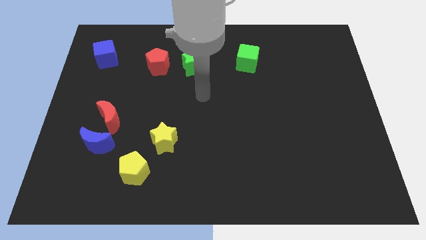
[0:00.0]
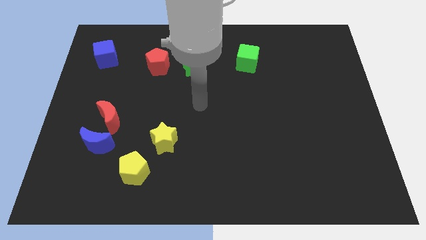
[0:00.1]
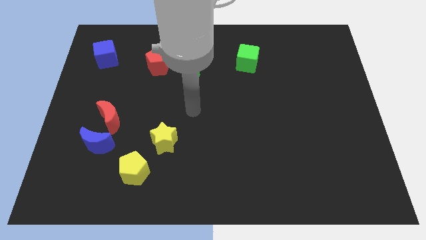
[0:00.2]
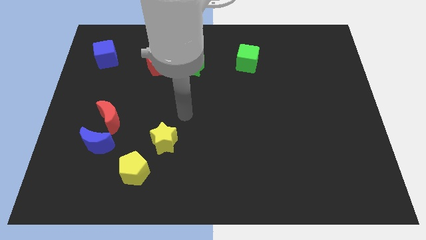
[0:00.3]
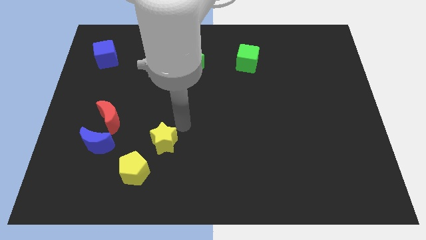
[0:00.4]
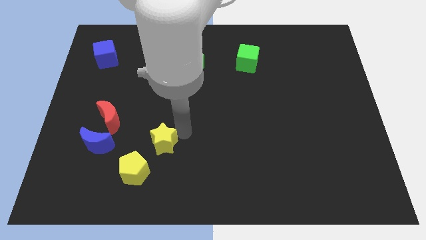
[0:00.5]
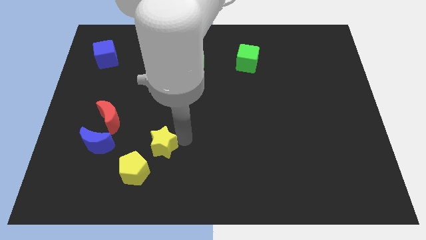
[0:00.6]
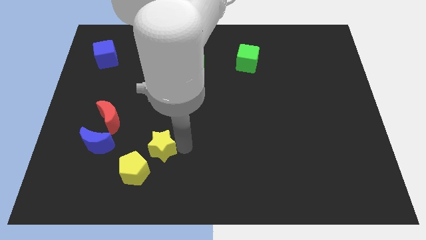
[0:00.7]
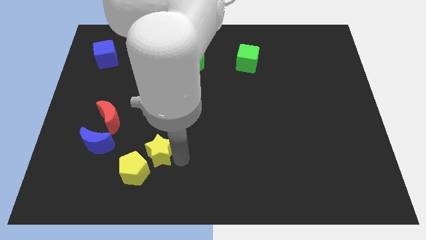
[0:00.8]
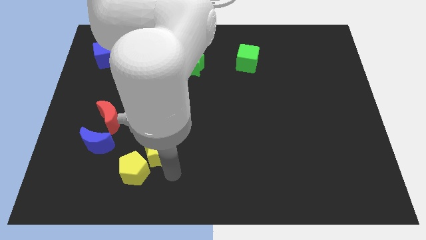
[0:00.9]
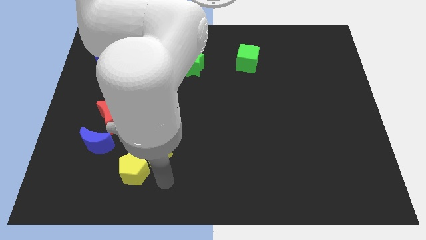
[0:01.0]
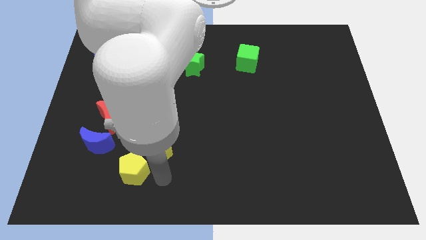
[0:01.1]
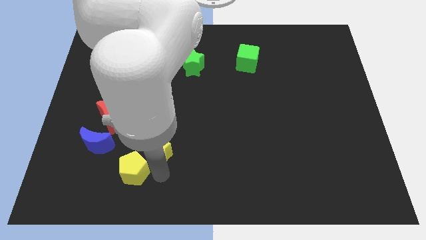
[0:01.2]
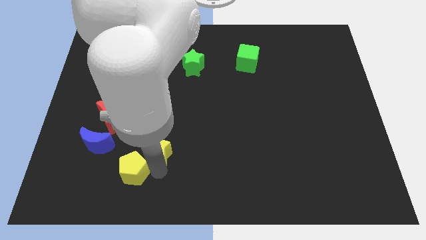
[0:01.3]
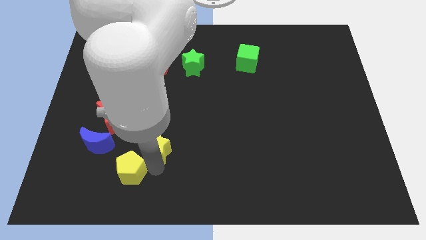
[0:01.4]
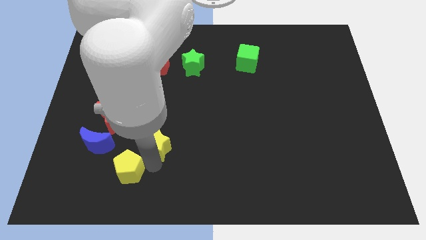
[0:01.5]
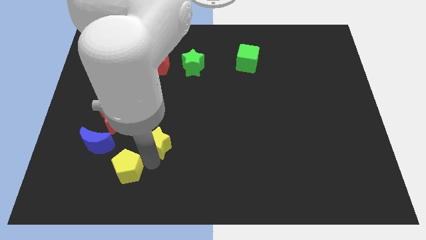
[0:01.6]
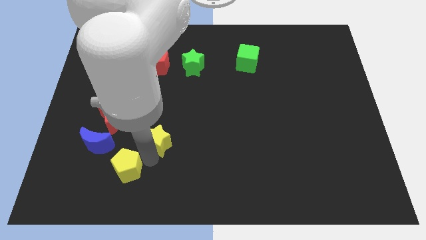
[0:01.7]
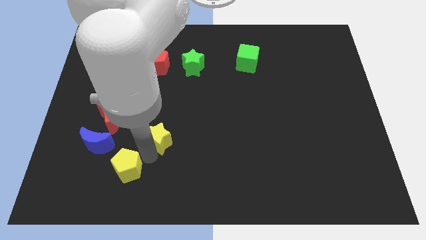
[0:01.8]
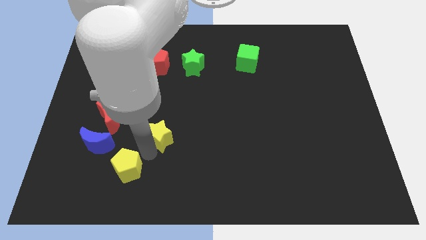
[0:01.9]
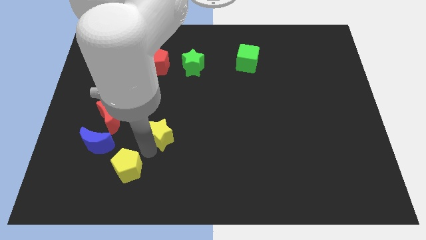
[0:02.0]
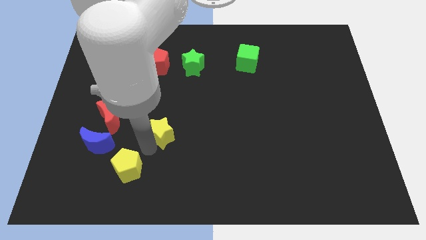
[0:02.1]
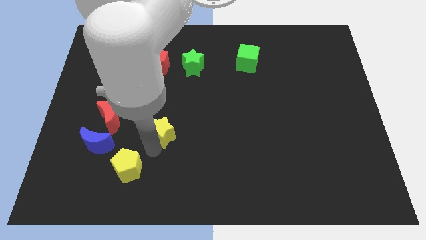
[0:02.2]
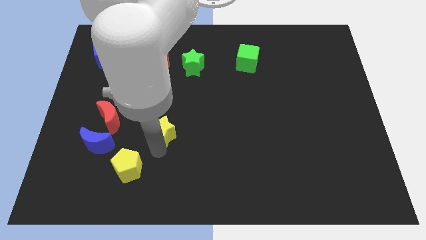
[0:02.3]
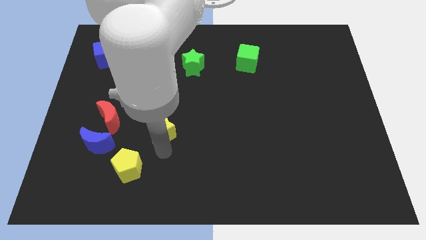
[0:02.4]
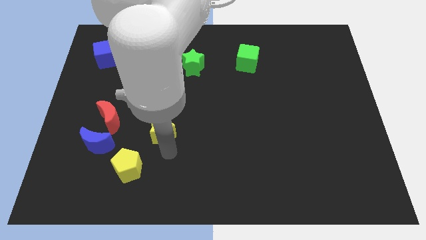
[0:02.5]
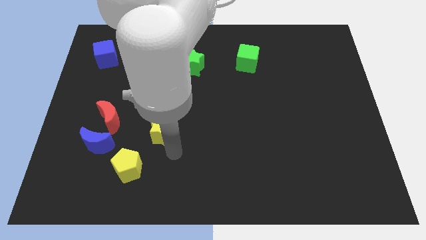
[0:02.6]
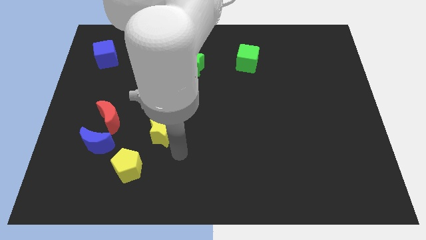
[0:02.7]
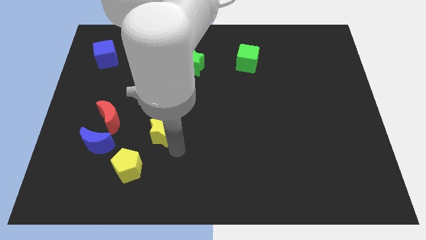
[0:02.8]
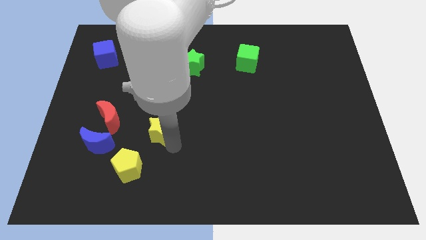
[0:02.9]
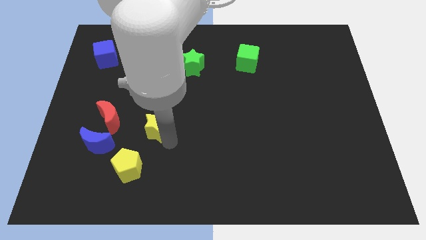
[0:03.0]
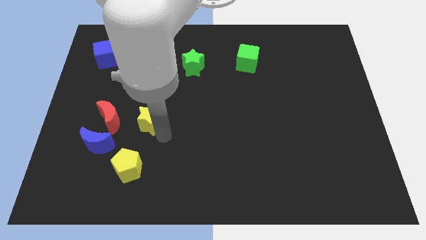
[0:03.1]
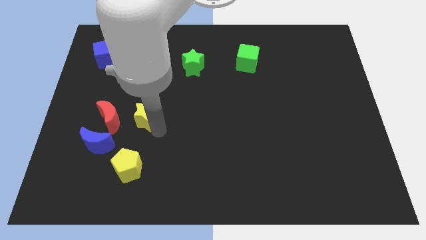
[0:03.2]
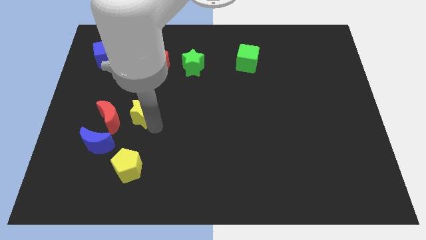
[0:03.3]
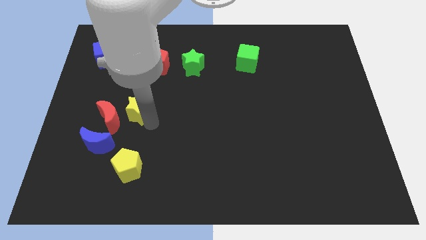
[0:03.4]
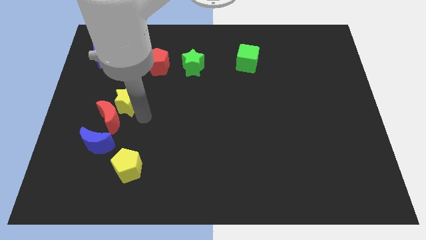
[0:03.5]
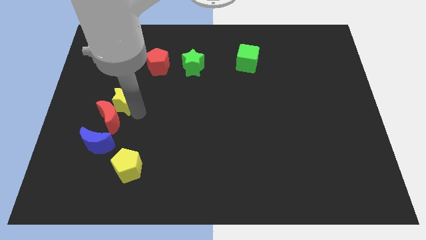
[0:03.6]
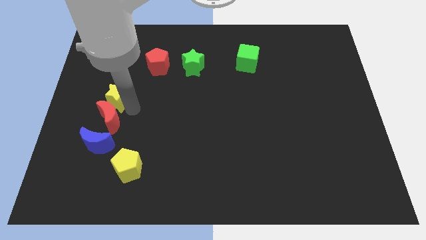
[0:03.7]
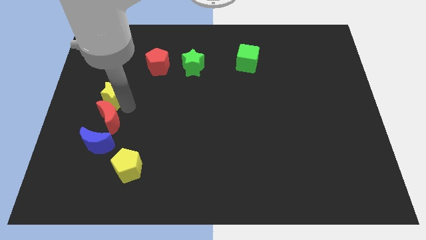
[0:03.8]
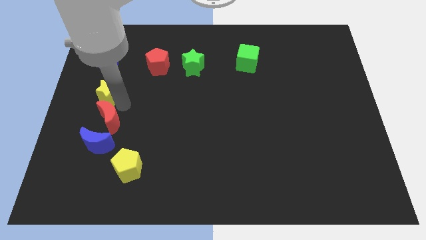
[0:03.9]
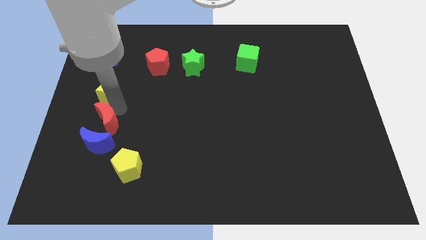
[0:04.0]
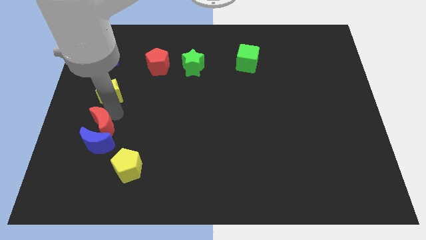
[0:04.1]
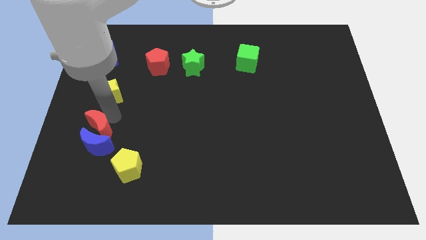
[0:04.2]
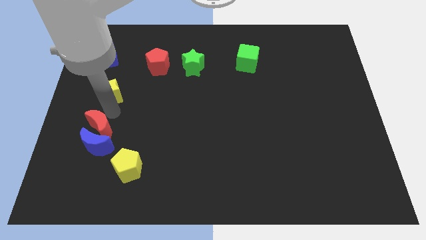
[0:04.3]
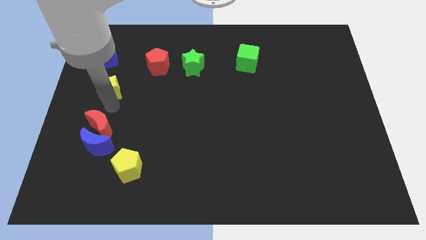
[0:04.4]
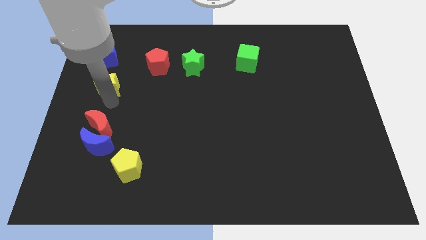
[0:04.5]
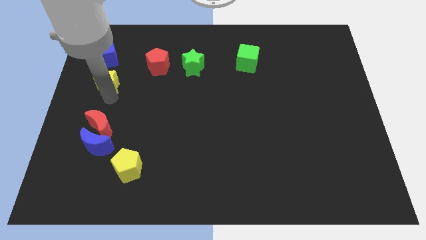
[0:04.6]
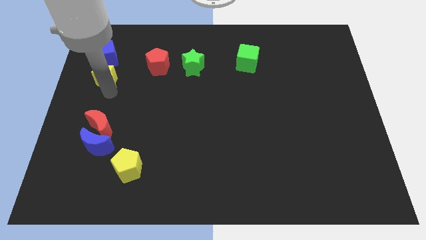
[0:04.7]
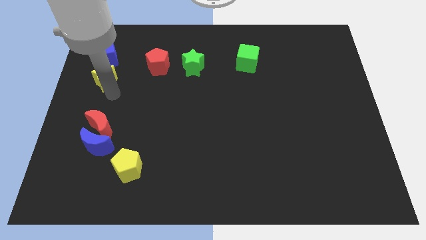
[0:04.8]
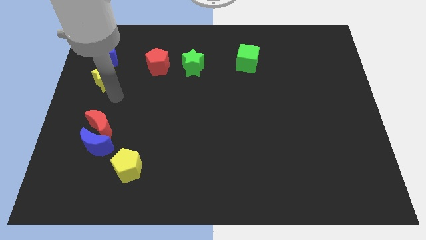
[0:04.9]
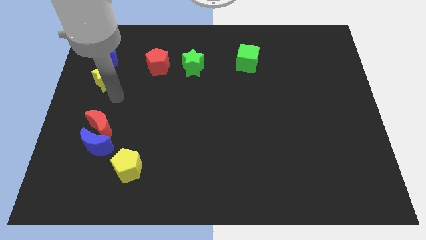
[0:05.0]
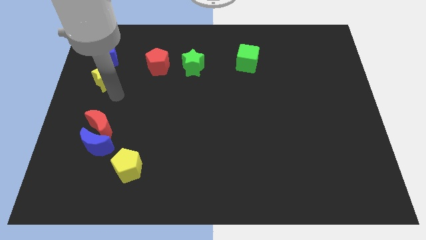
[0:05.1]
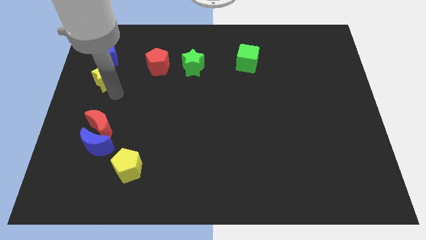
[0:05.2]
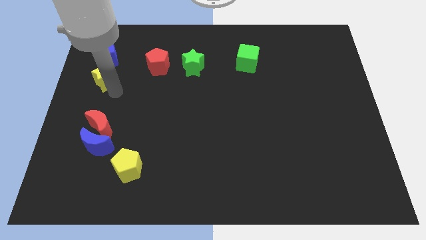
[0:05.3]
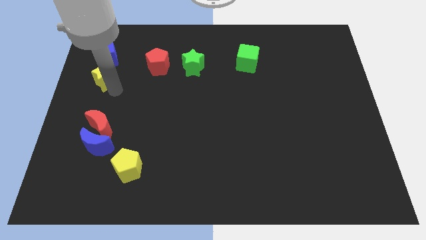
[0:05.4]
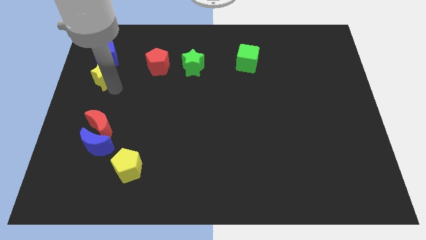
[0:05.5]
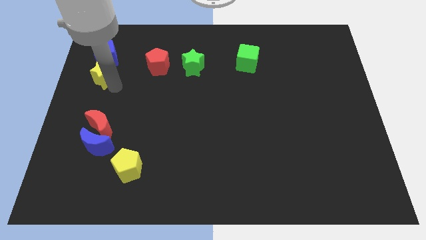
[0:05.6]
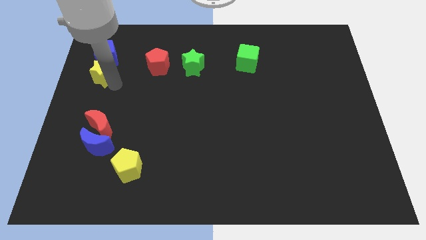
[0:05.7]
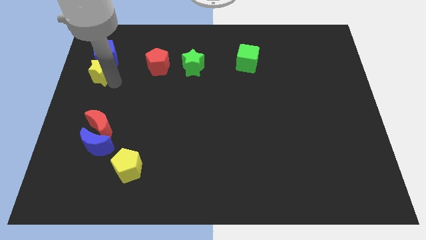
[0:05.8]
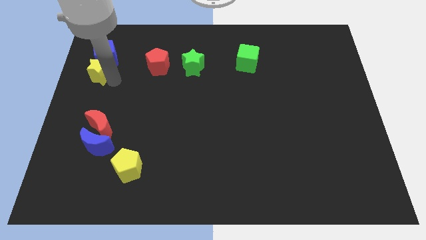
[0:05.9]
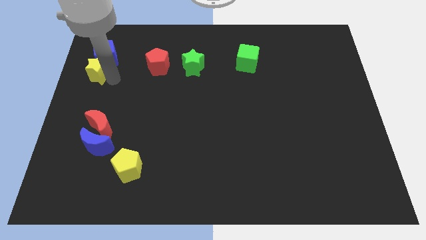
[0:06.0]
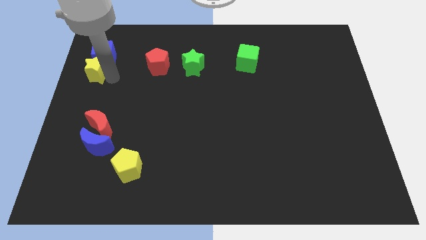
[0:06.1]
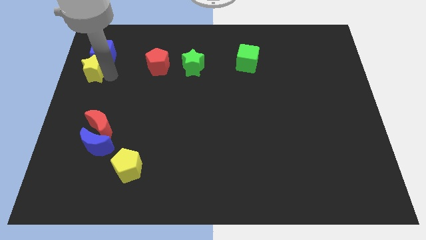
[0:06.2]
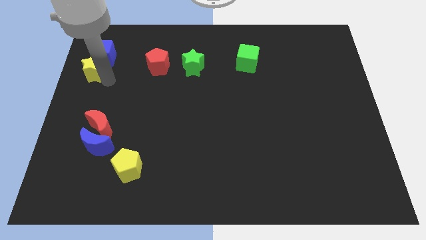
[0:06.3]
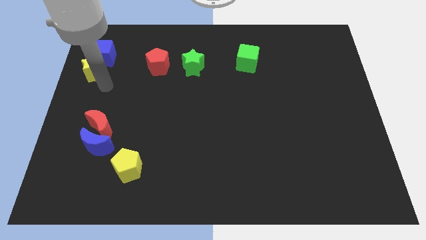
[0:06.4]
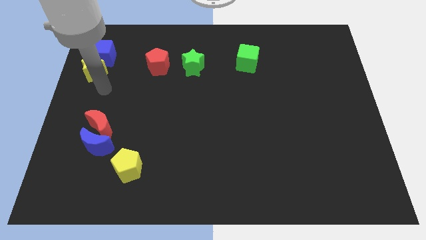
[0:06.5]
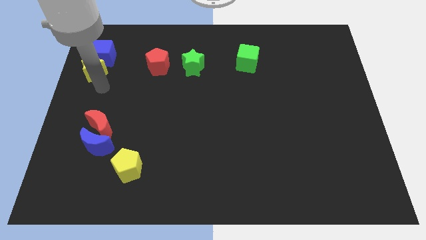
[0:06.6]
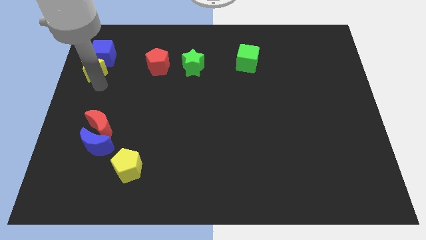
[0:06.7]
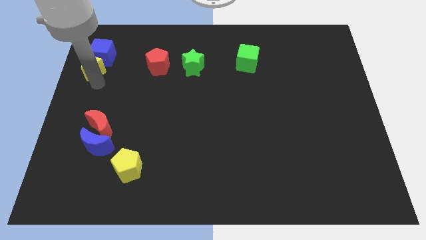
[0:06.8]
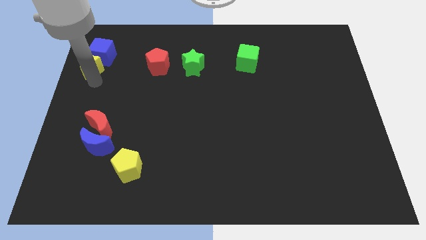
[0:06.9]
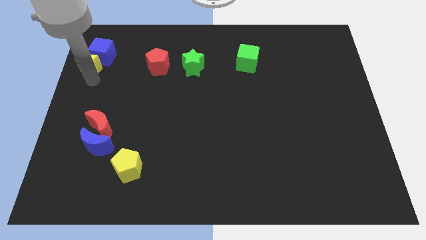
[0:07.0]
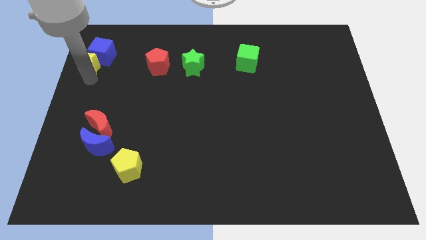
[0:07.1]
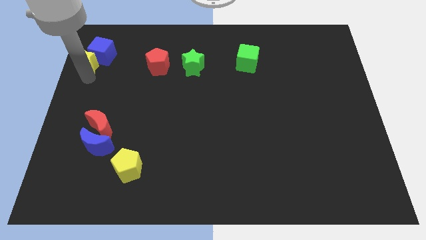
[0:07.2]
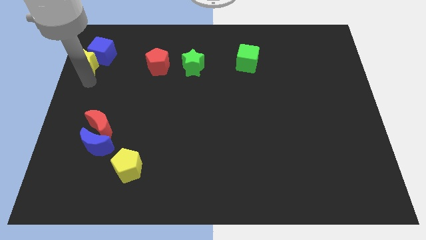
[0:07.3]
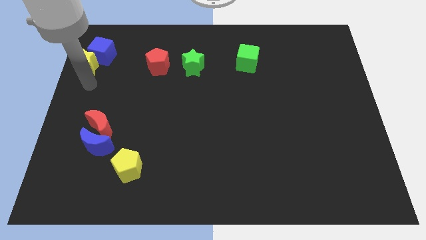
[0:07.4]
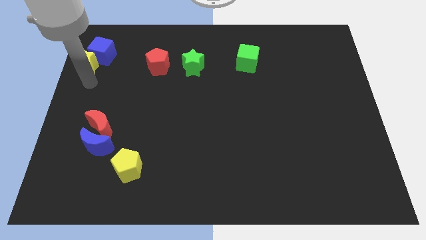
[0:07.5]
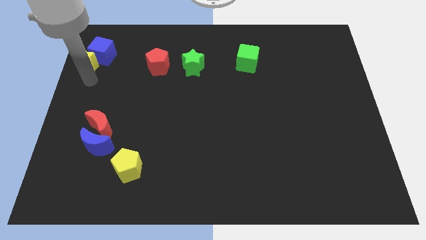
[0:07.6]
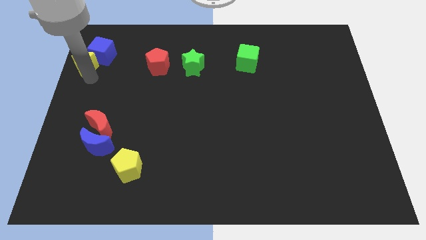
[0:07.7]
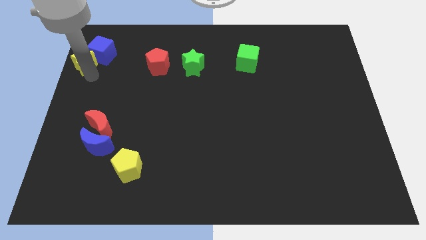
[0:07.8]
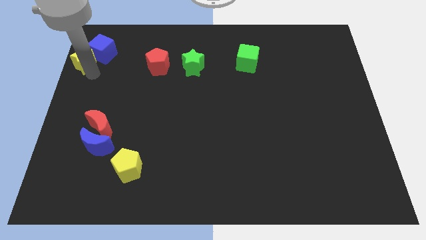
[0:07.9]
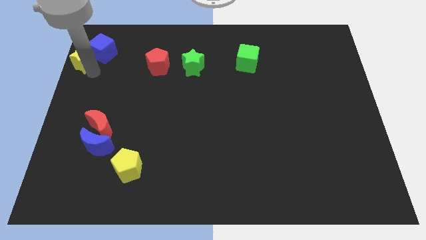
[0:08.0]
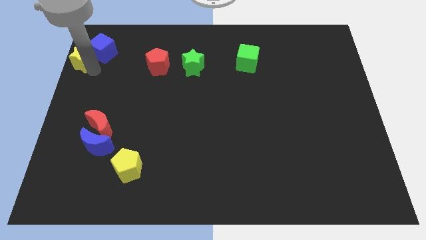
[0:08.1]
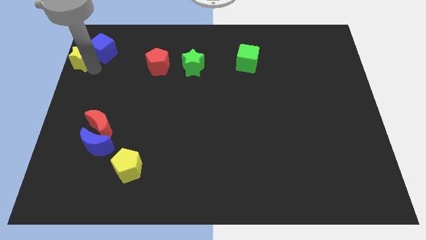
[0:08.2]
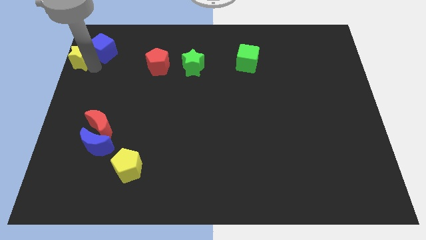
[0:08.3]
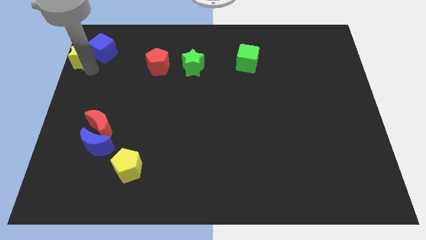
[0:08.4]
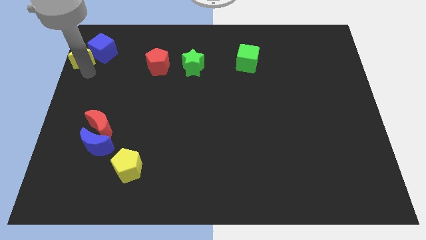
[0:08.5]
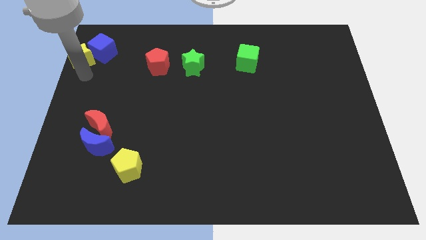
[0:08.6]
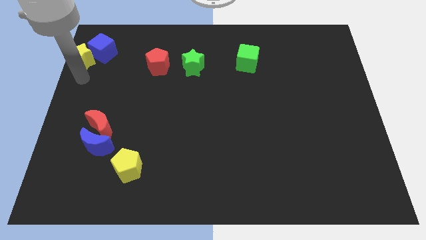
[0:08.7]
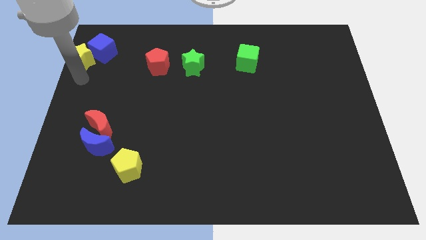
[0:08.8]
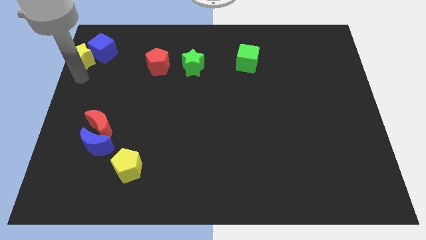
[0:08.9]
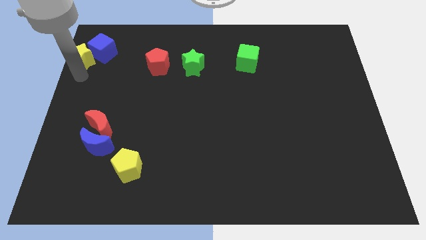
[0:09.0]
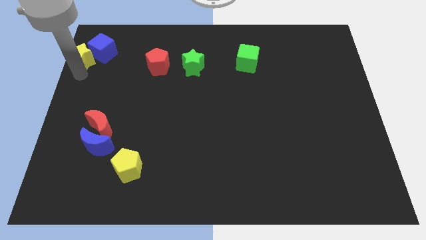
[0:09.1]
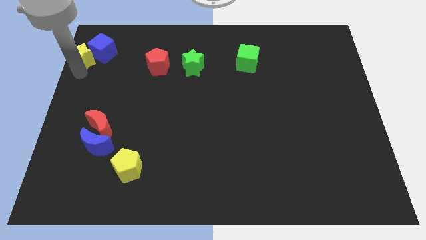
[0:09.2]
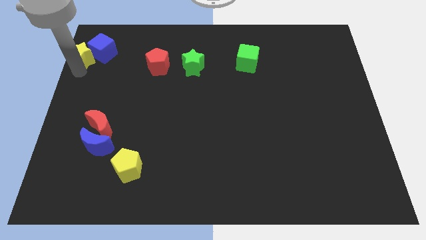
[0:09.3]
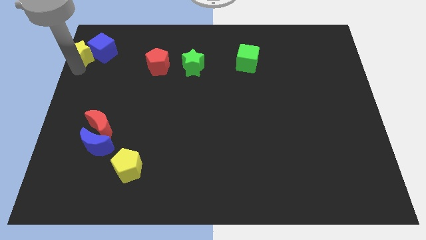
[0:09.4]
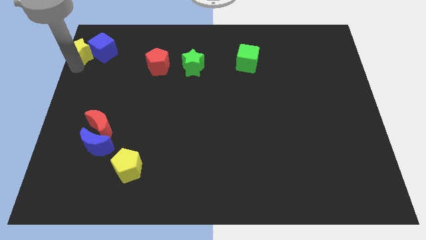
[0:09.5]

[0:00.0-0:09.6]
put the yellow star to the top left of the board
